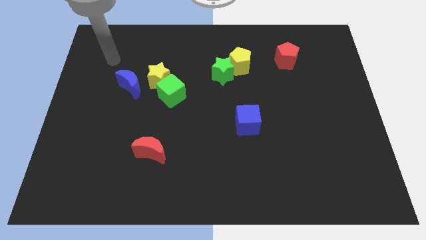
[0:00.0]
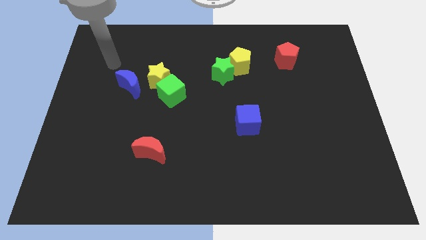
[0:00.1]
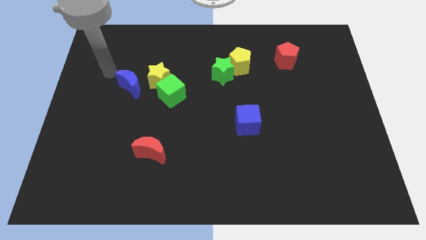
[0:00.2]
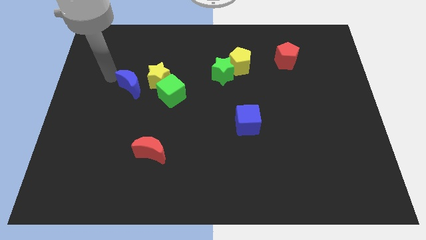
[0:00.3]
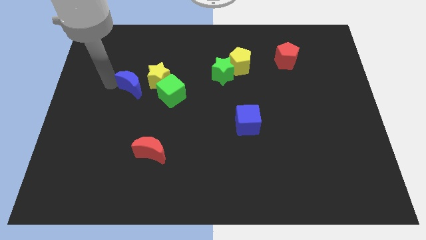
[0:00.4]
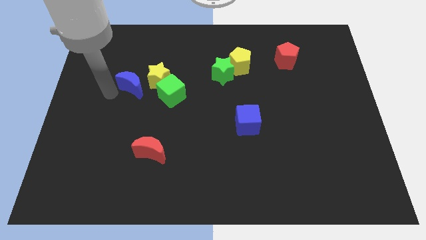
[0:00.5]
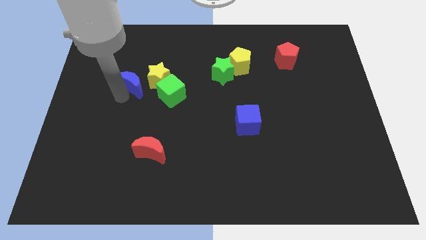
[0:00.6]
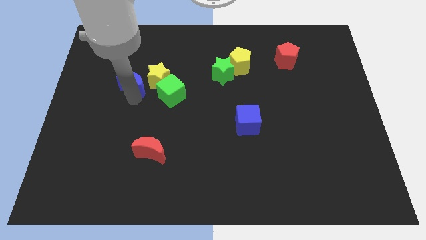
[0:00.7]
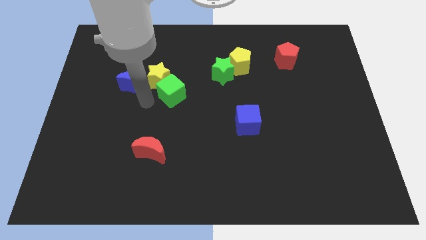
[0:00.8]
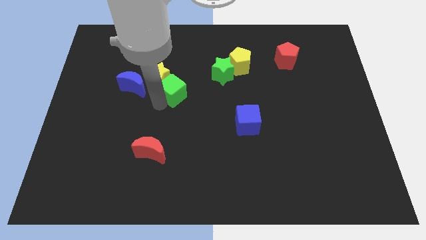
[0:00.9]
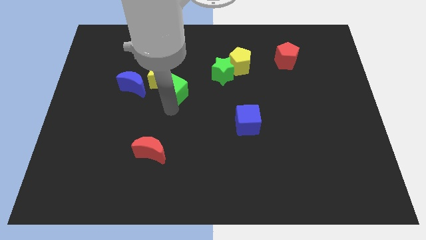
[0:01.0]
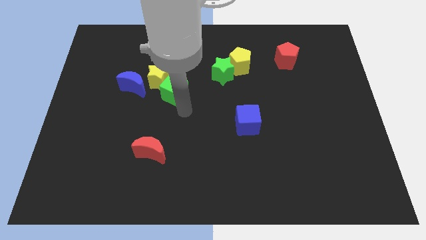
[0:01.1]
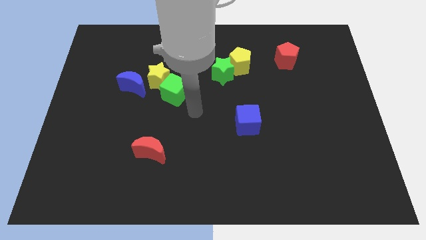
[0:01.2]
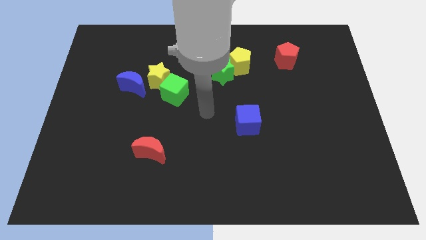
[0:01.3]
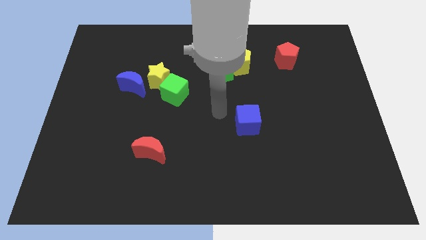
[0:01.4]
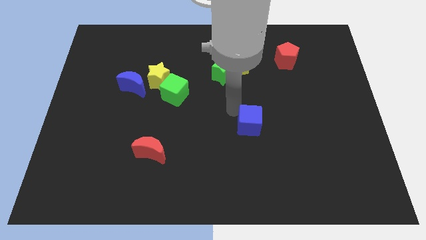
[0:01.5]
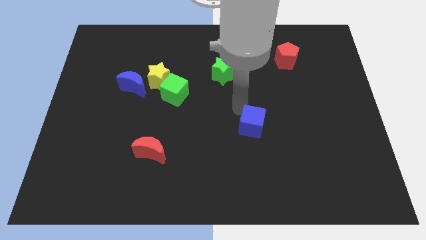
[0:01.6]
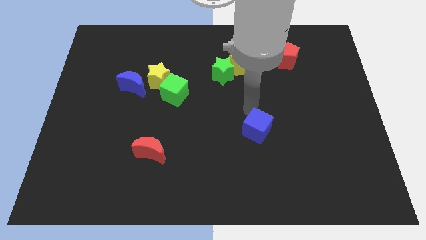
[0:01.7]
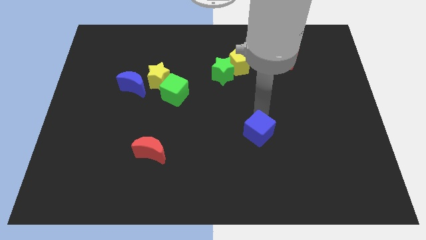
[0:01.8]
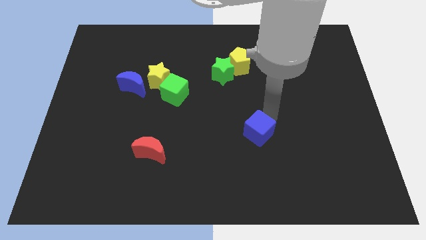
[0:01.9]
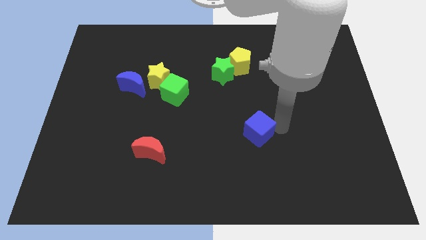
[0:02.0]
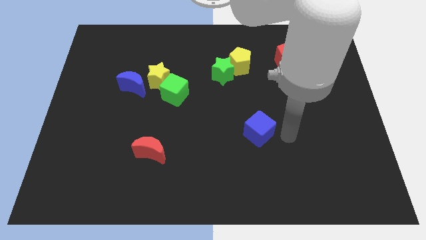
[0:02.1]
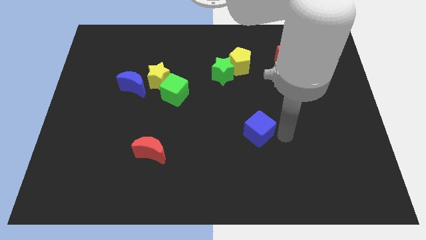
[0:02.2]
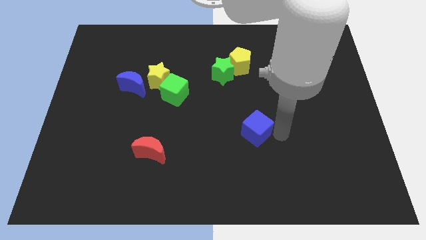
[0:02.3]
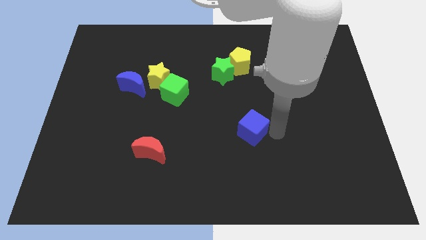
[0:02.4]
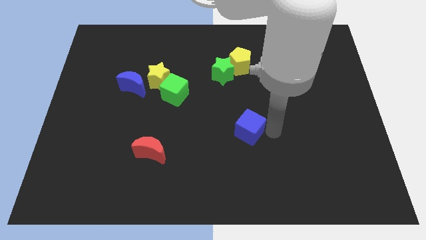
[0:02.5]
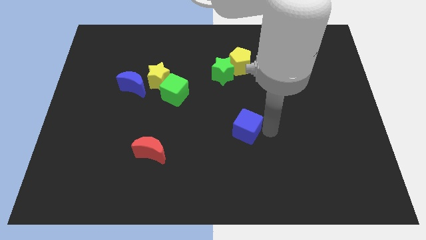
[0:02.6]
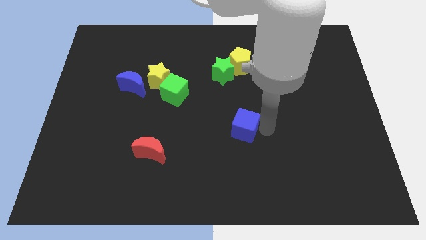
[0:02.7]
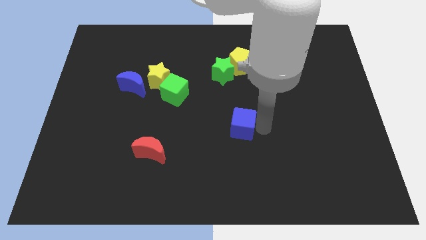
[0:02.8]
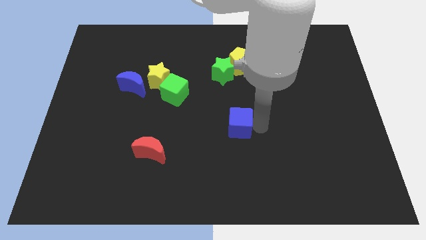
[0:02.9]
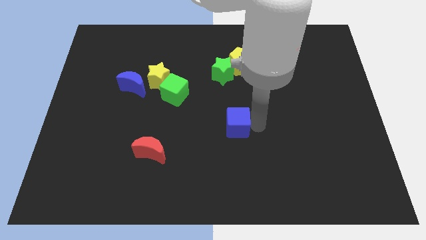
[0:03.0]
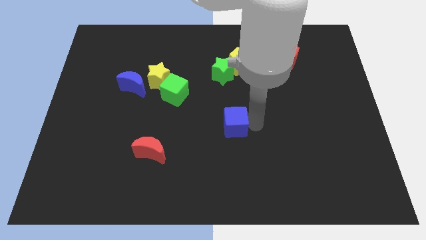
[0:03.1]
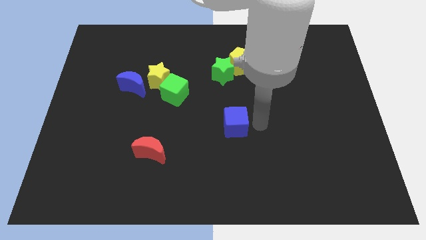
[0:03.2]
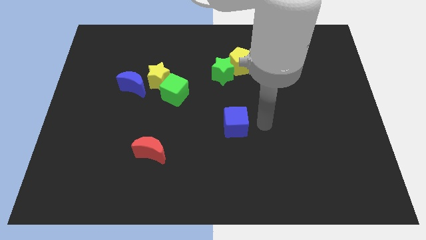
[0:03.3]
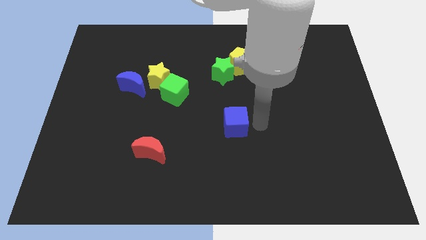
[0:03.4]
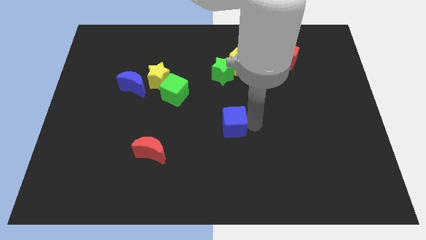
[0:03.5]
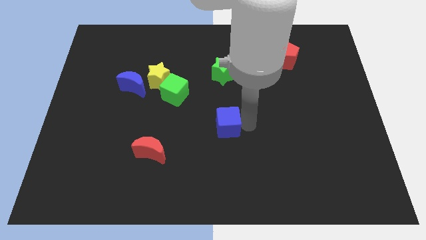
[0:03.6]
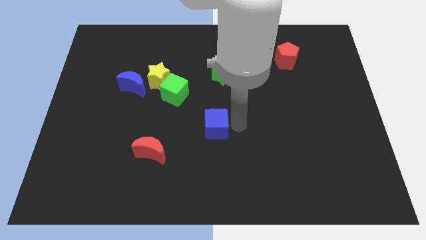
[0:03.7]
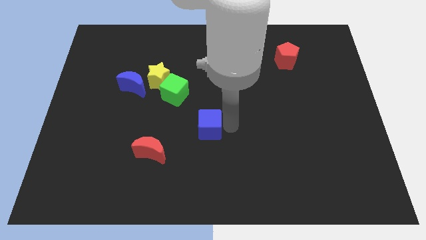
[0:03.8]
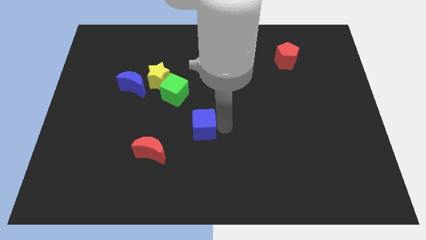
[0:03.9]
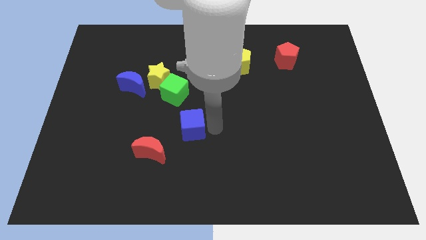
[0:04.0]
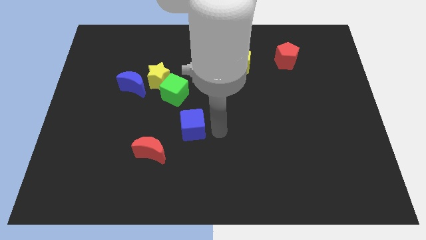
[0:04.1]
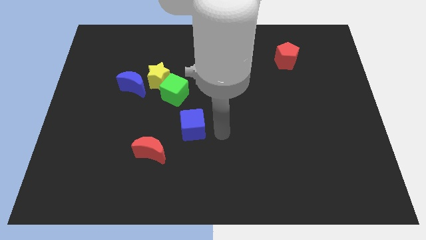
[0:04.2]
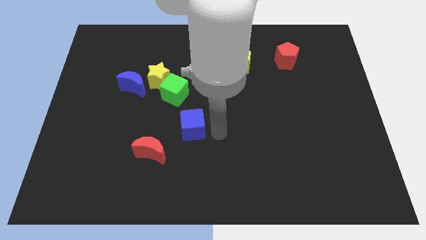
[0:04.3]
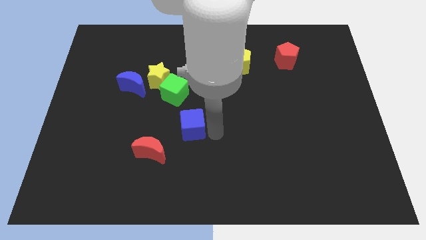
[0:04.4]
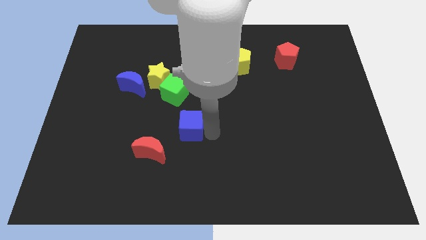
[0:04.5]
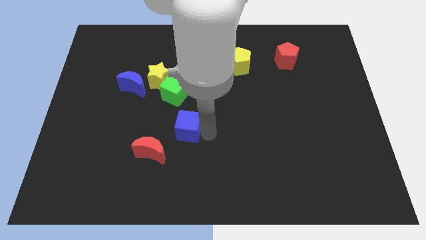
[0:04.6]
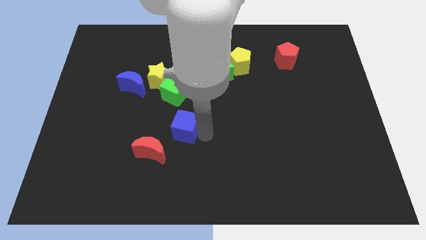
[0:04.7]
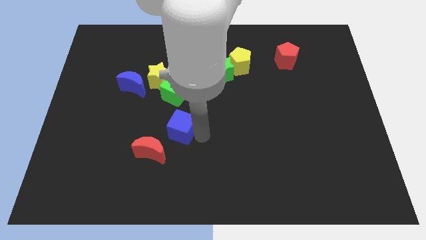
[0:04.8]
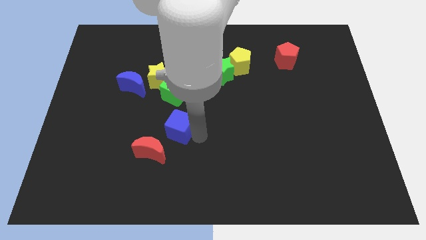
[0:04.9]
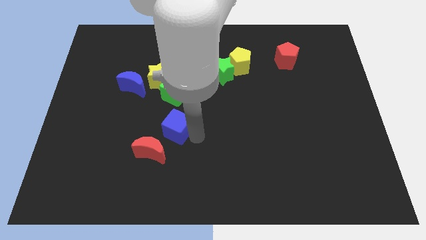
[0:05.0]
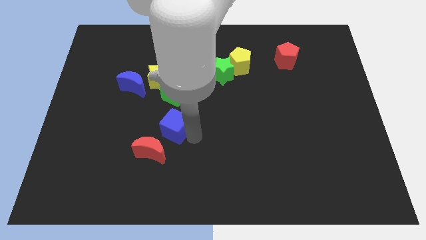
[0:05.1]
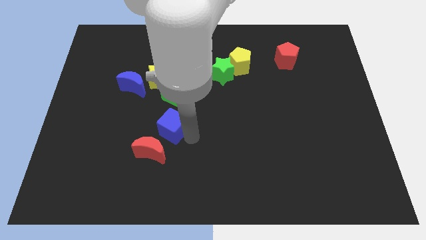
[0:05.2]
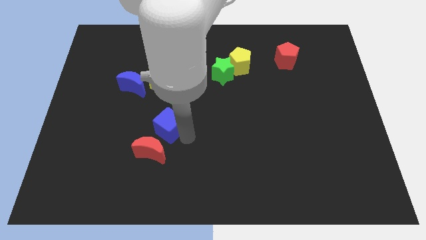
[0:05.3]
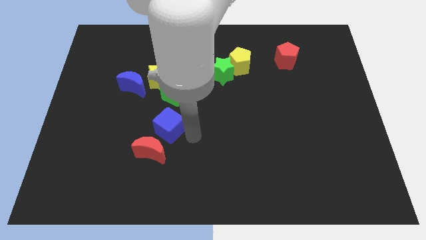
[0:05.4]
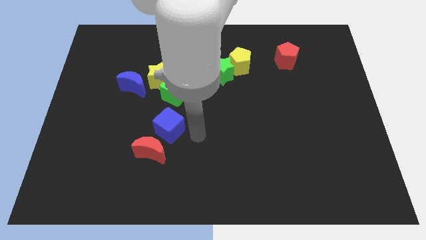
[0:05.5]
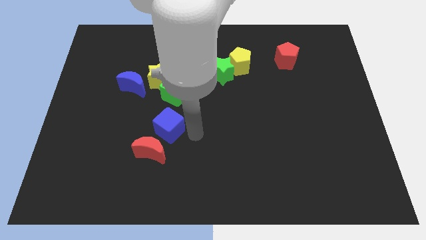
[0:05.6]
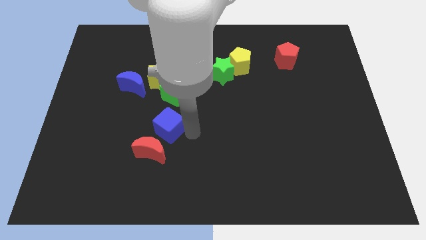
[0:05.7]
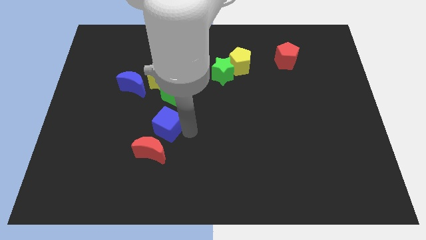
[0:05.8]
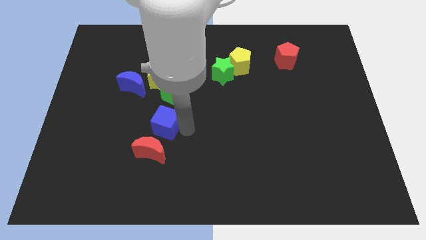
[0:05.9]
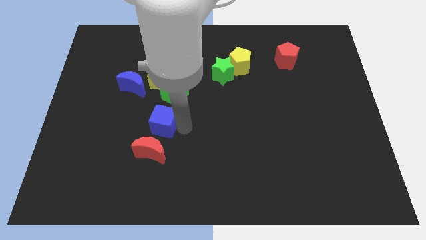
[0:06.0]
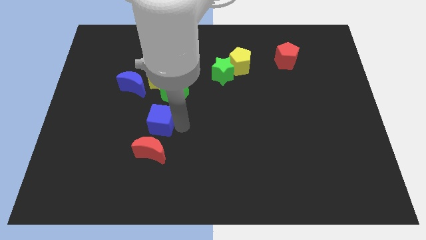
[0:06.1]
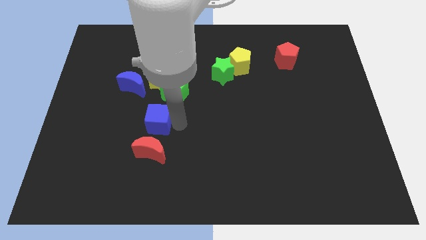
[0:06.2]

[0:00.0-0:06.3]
move the blue cube to the left

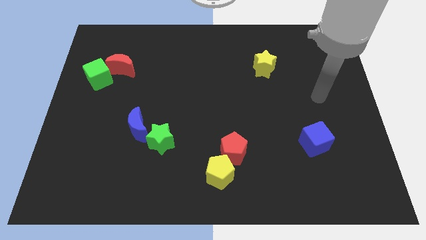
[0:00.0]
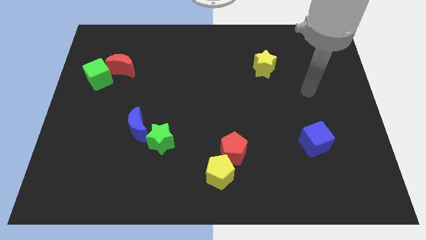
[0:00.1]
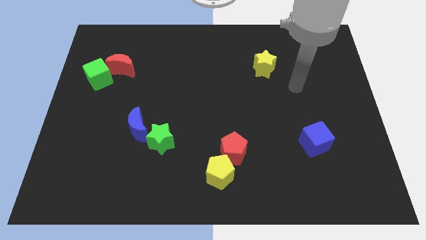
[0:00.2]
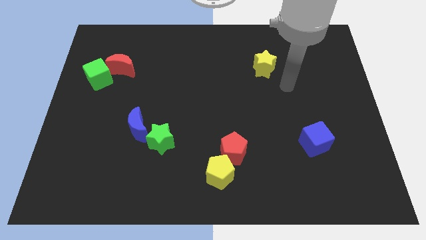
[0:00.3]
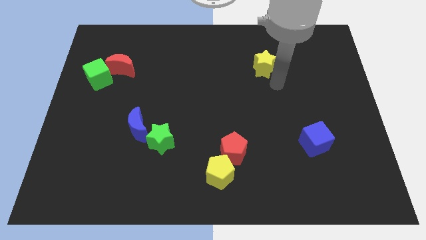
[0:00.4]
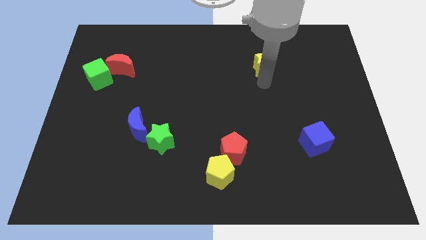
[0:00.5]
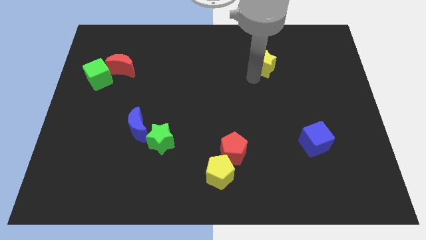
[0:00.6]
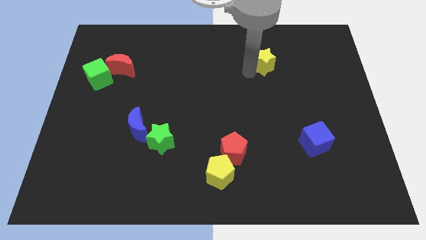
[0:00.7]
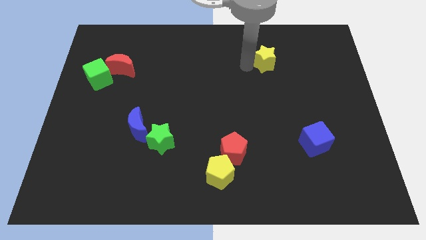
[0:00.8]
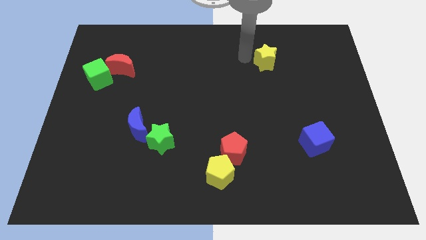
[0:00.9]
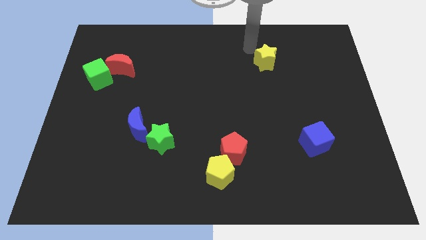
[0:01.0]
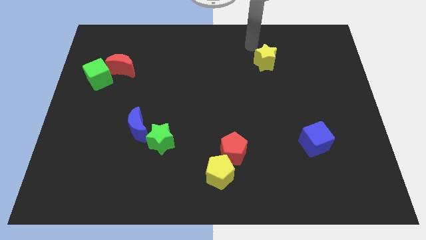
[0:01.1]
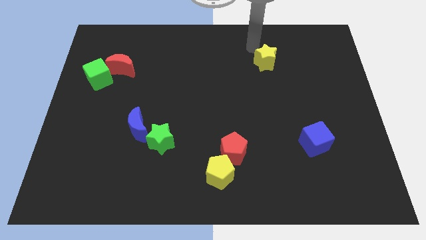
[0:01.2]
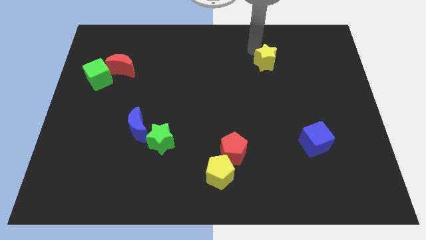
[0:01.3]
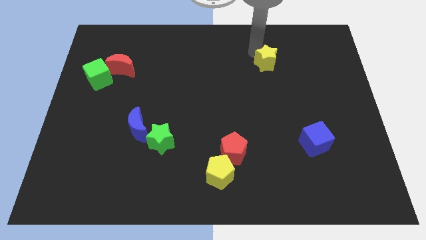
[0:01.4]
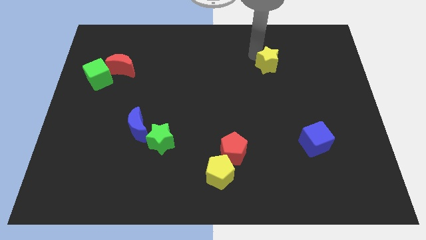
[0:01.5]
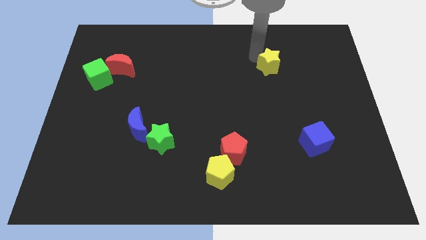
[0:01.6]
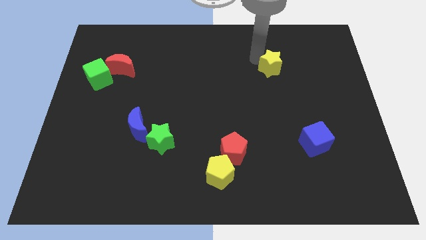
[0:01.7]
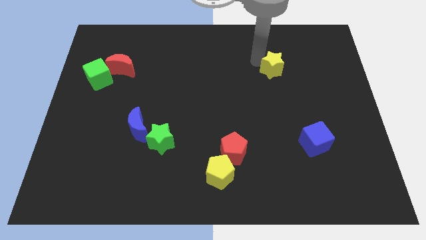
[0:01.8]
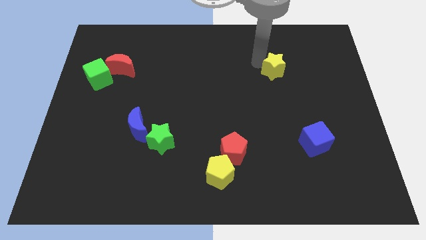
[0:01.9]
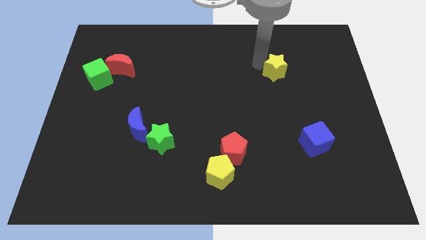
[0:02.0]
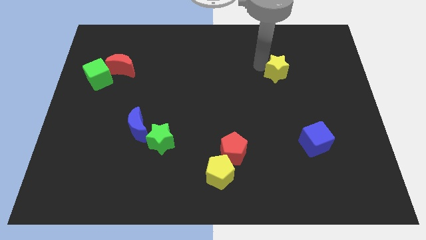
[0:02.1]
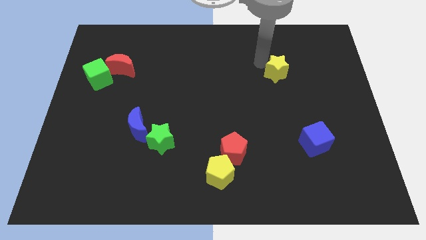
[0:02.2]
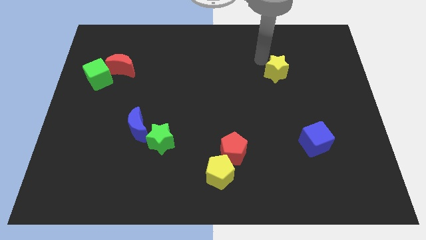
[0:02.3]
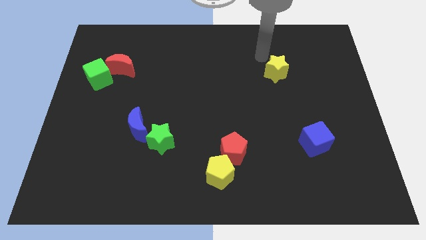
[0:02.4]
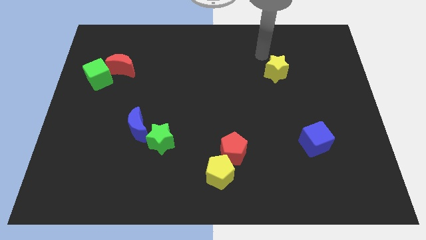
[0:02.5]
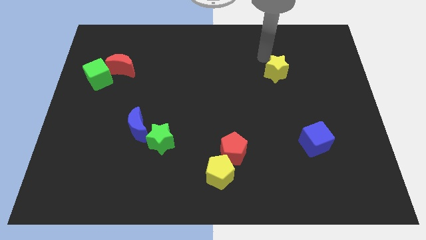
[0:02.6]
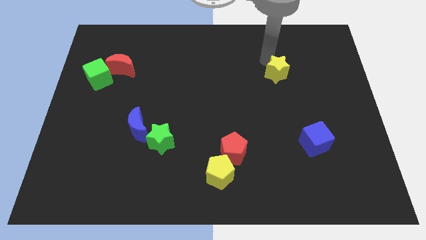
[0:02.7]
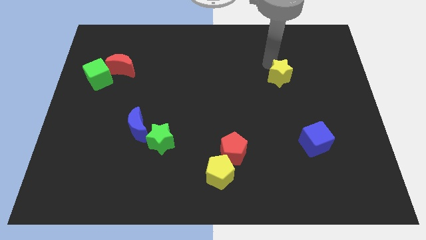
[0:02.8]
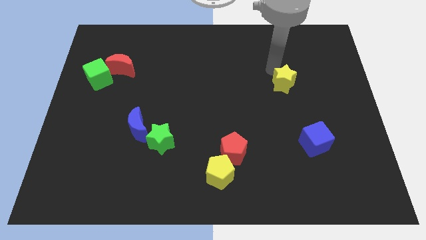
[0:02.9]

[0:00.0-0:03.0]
slide the yellow star a little downwards and then to the right
